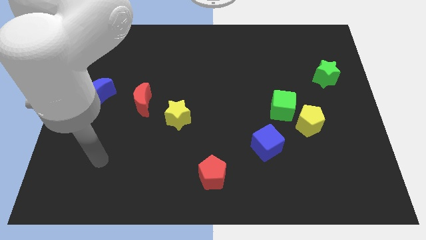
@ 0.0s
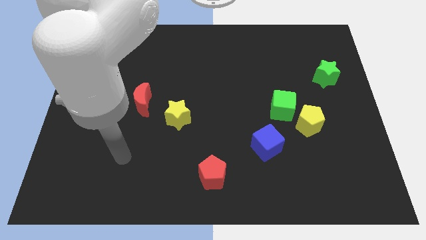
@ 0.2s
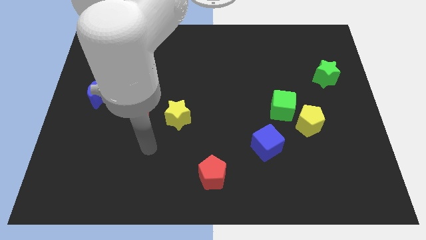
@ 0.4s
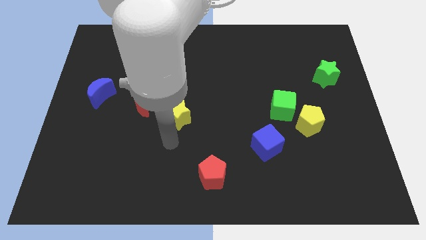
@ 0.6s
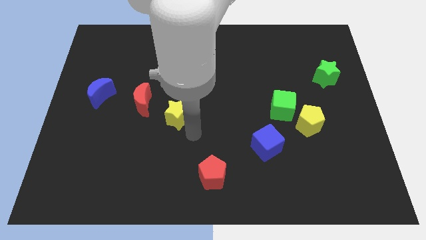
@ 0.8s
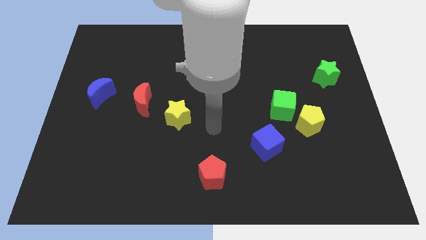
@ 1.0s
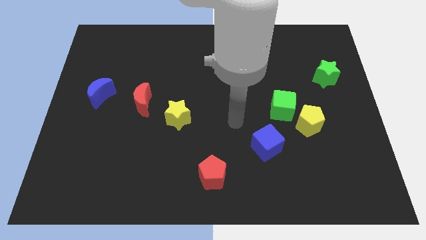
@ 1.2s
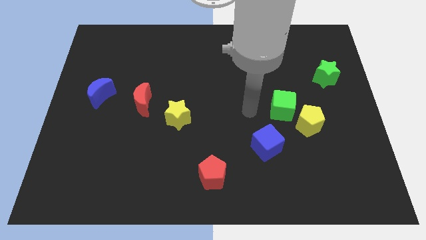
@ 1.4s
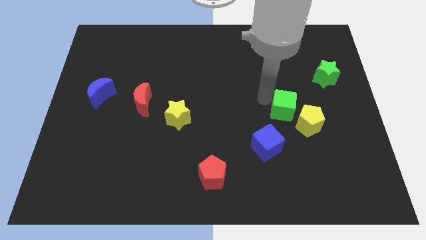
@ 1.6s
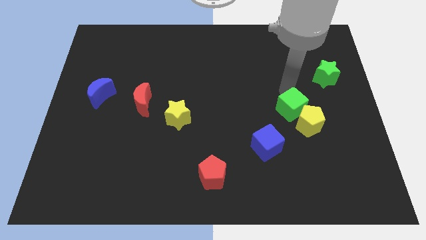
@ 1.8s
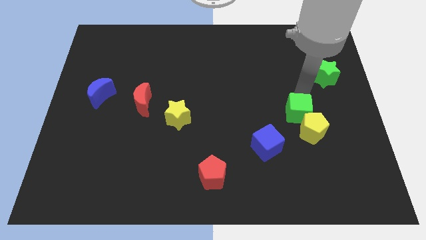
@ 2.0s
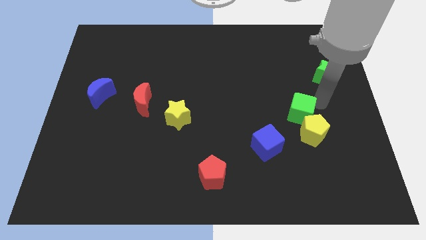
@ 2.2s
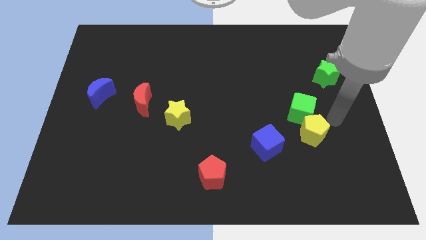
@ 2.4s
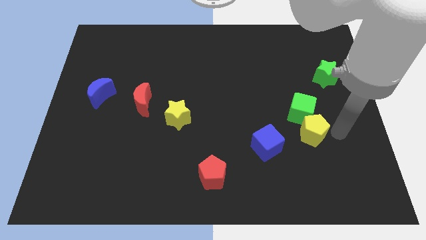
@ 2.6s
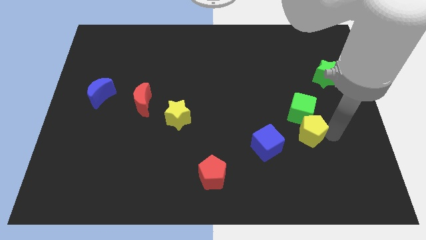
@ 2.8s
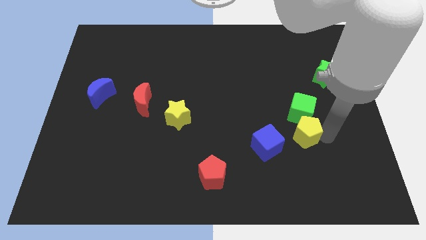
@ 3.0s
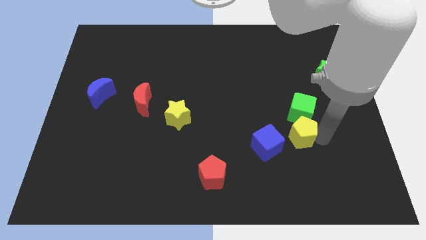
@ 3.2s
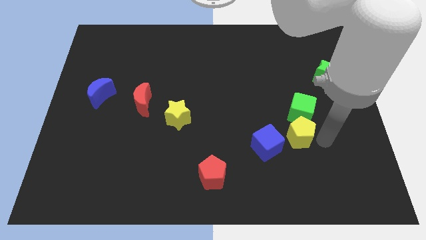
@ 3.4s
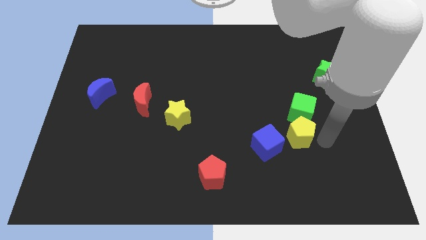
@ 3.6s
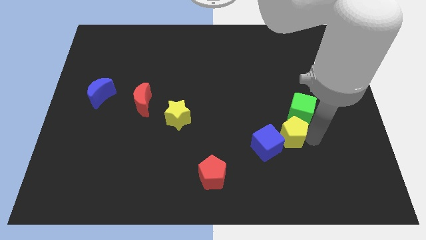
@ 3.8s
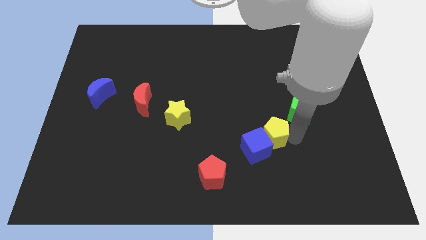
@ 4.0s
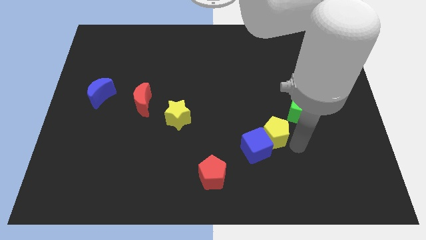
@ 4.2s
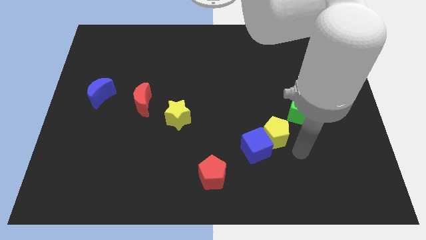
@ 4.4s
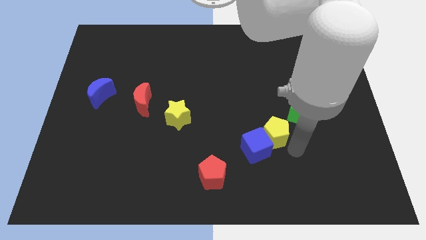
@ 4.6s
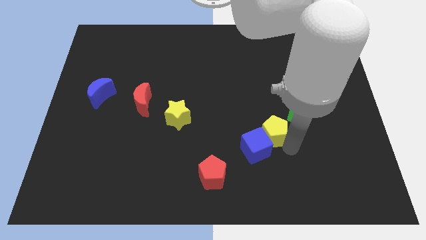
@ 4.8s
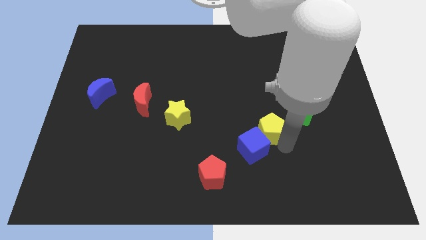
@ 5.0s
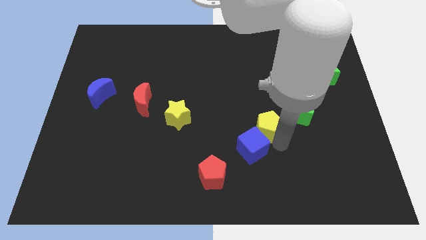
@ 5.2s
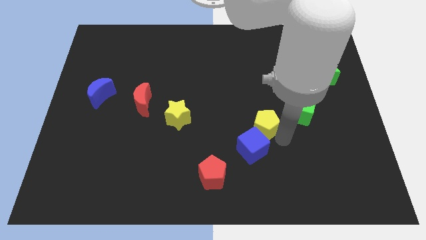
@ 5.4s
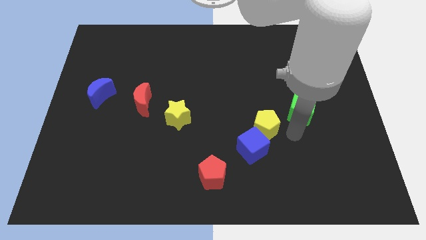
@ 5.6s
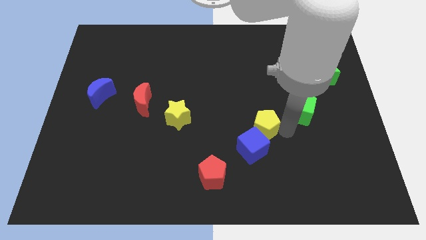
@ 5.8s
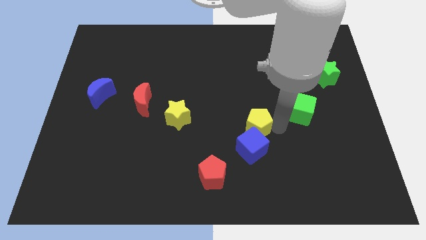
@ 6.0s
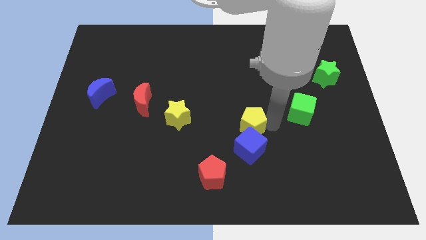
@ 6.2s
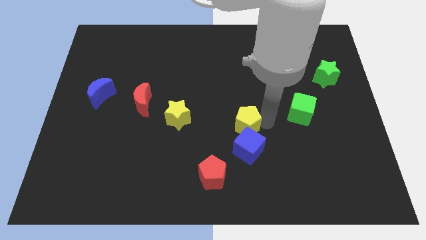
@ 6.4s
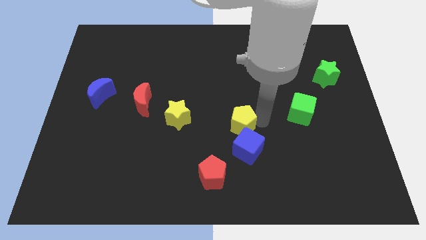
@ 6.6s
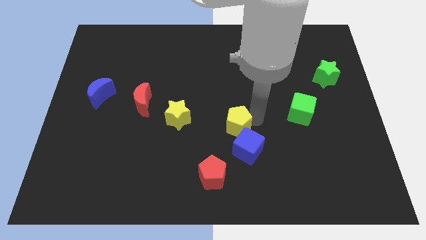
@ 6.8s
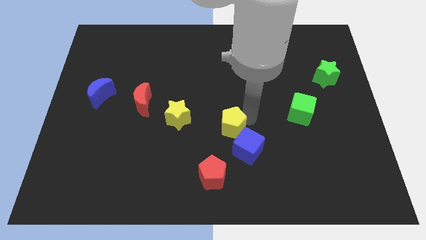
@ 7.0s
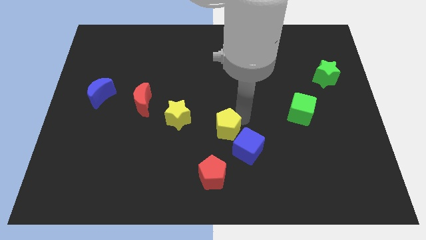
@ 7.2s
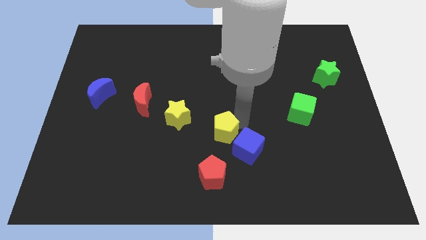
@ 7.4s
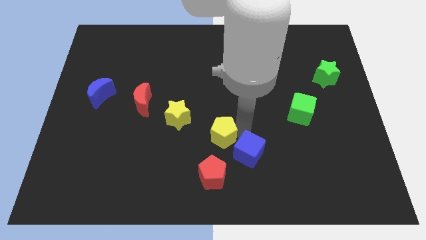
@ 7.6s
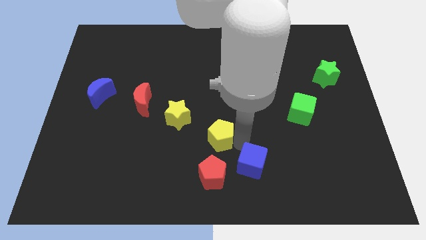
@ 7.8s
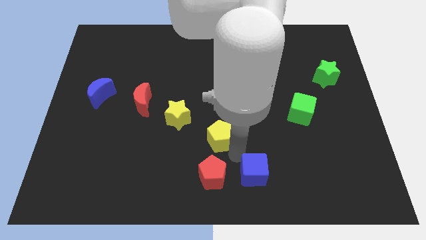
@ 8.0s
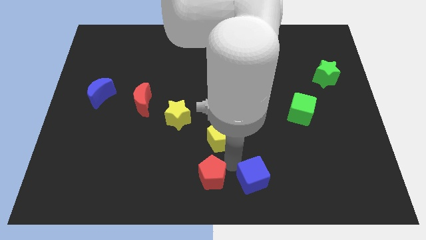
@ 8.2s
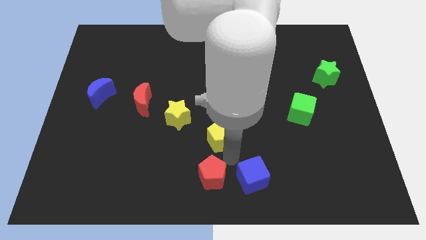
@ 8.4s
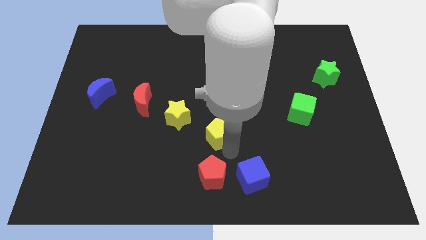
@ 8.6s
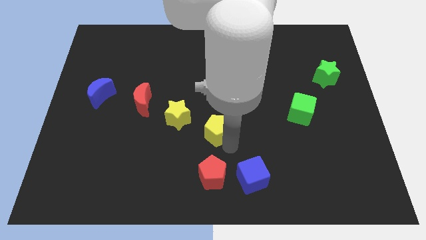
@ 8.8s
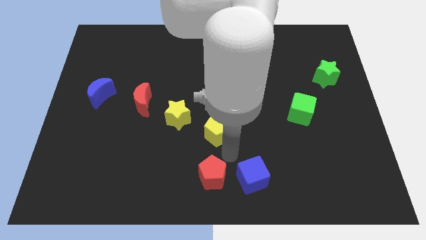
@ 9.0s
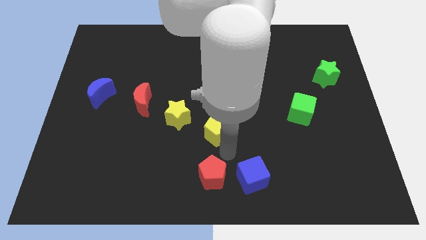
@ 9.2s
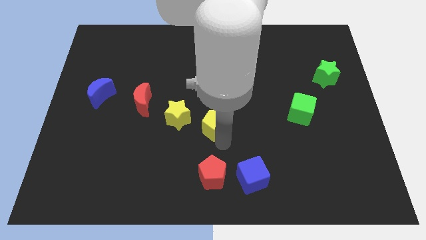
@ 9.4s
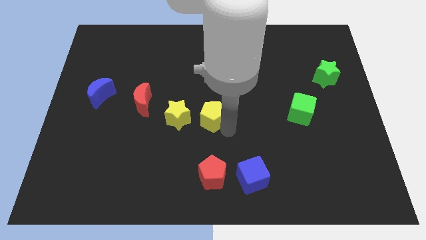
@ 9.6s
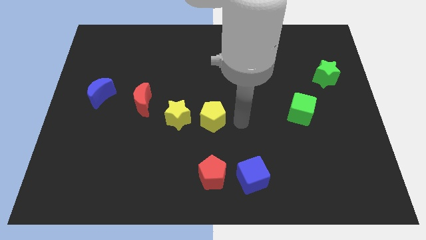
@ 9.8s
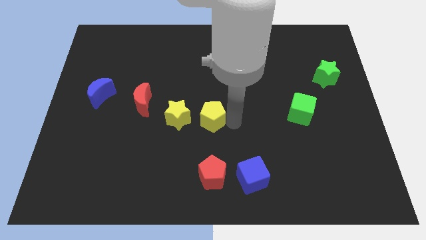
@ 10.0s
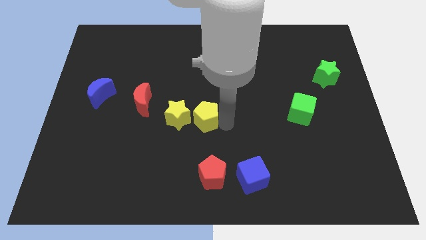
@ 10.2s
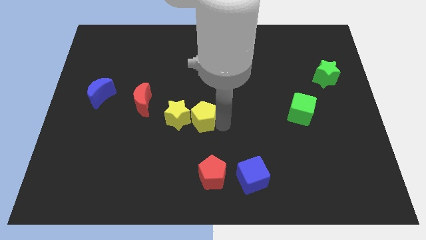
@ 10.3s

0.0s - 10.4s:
slide the yellow pentagon close to the yellow star

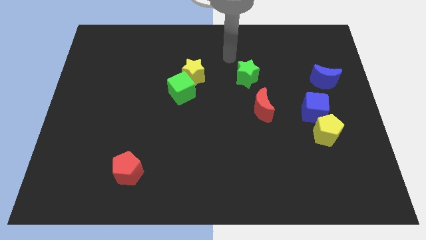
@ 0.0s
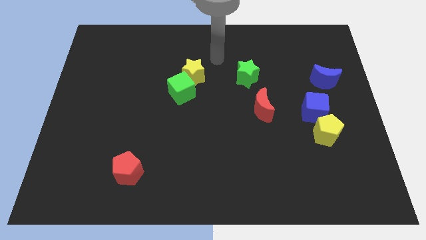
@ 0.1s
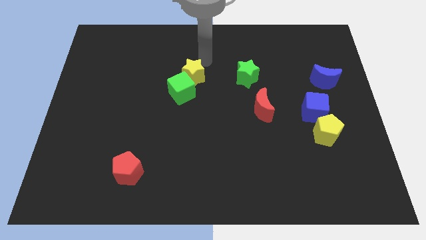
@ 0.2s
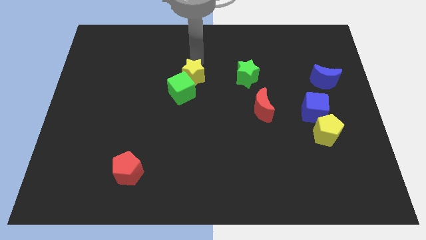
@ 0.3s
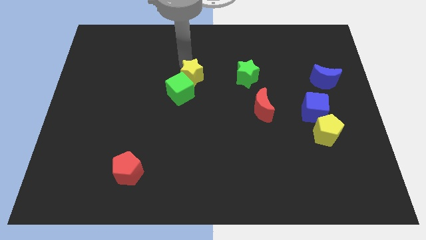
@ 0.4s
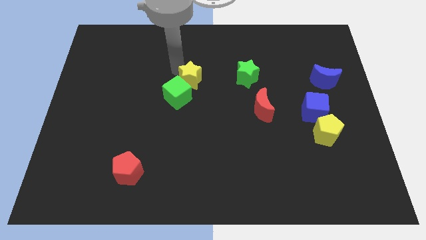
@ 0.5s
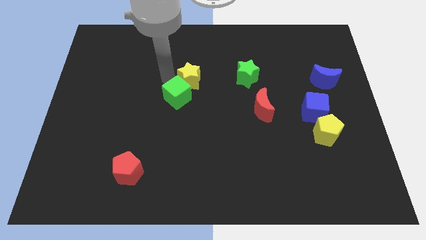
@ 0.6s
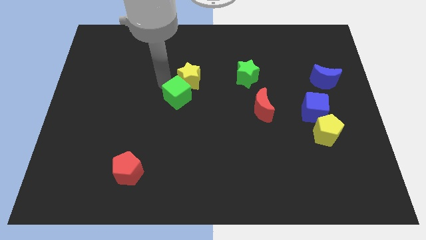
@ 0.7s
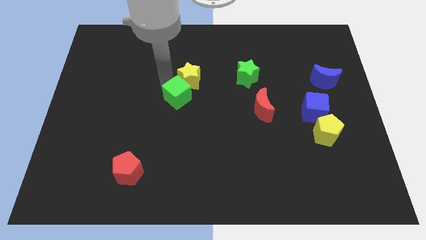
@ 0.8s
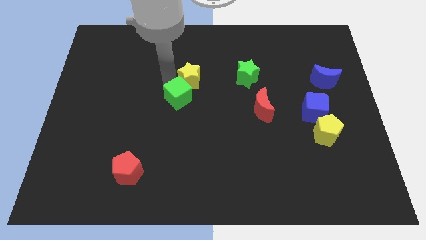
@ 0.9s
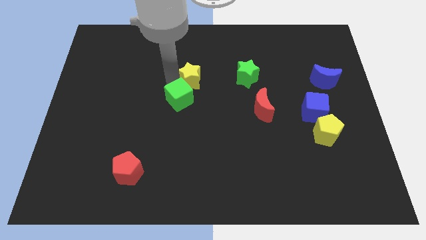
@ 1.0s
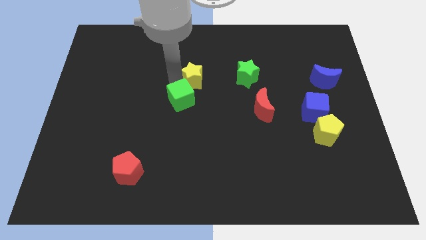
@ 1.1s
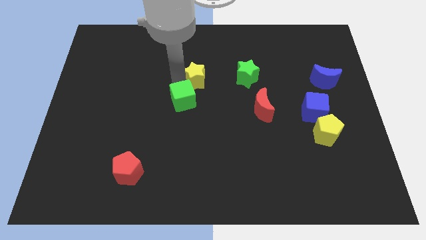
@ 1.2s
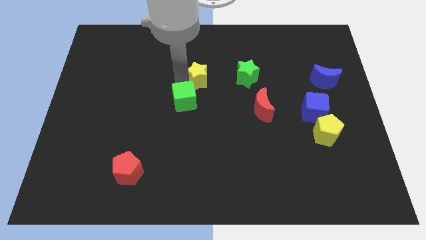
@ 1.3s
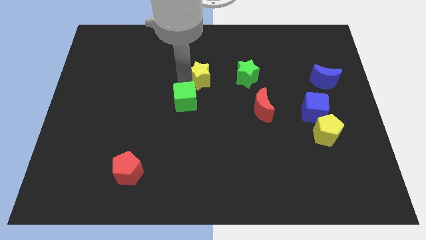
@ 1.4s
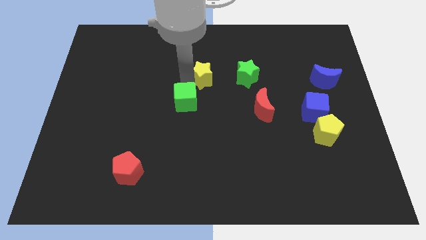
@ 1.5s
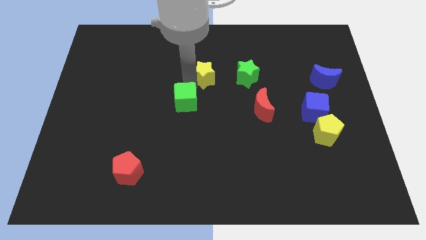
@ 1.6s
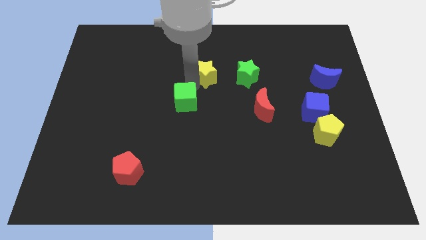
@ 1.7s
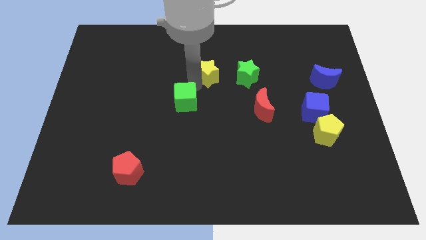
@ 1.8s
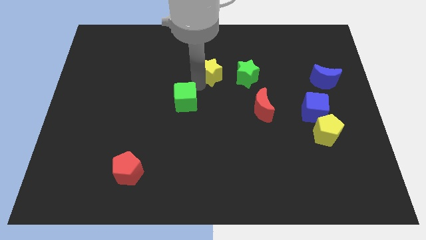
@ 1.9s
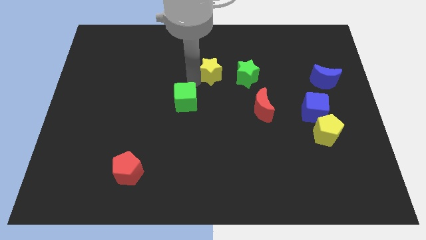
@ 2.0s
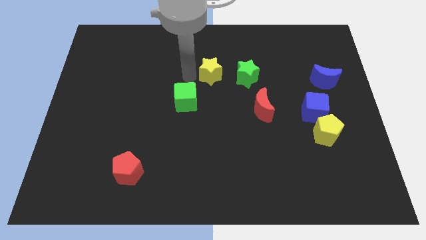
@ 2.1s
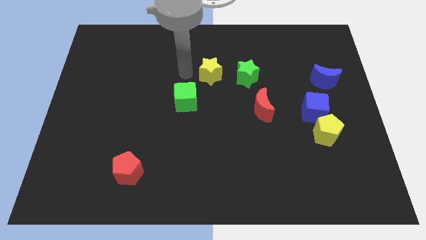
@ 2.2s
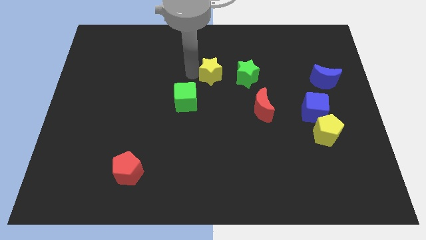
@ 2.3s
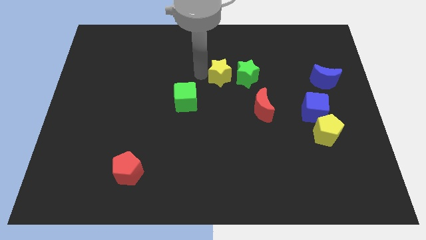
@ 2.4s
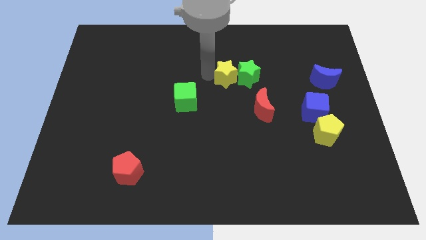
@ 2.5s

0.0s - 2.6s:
push the yellow star close to the green star

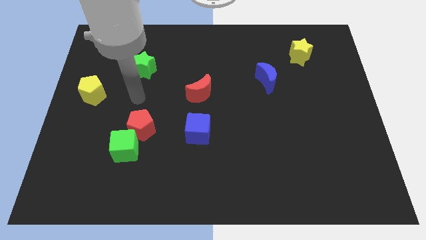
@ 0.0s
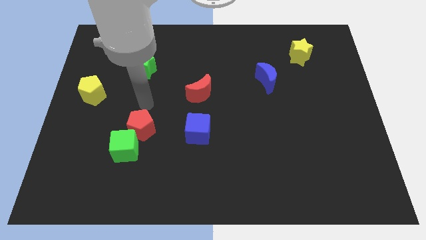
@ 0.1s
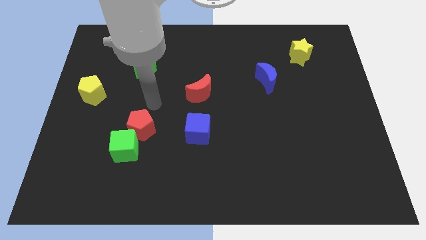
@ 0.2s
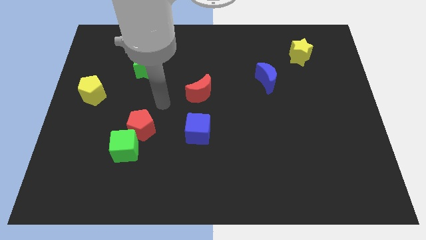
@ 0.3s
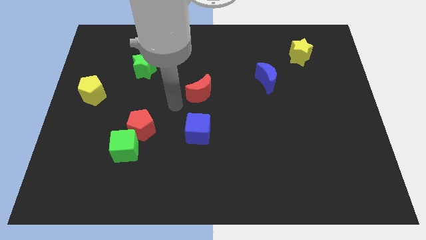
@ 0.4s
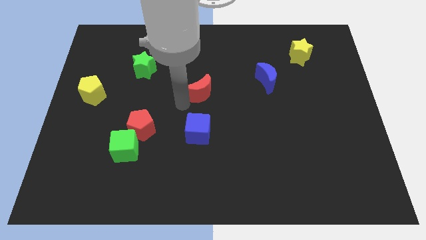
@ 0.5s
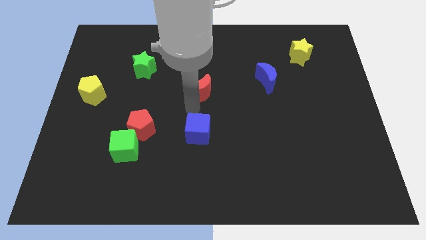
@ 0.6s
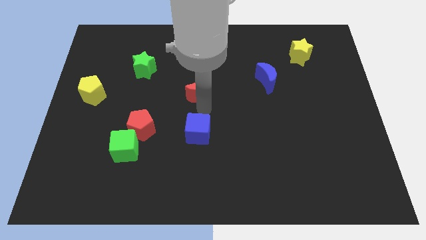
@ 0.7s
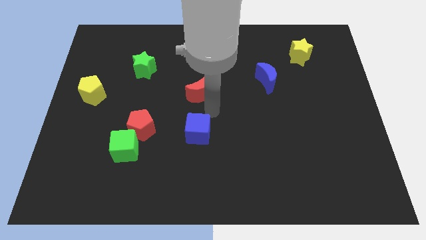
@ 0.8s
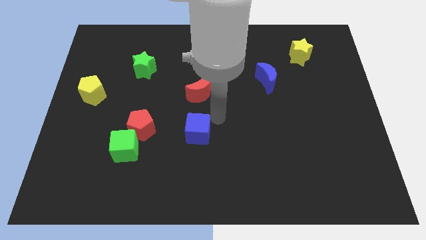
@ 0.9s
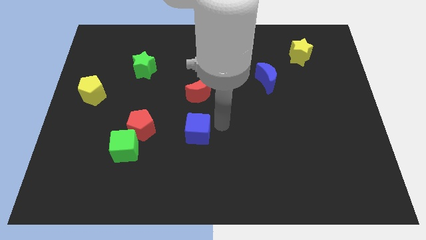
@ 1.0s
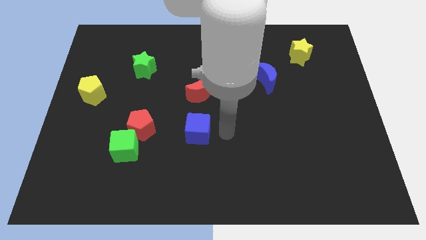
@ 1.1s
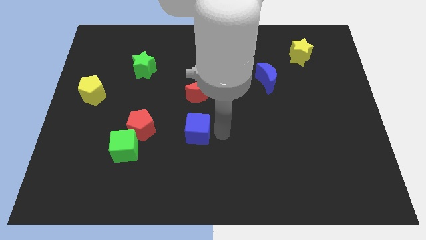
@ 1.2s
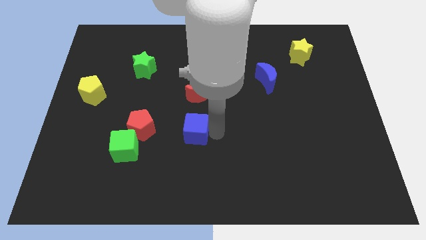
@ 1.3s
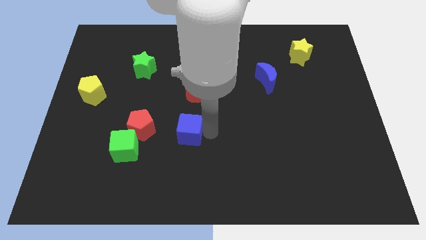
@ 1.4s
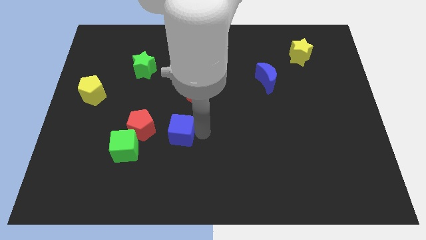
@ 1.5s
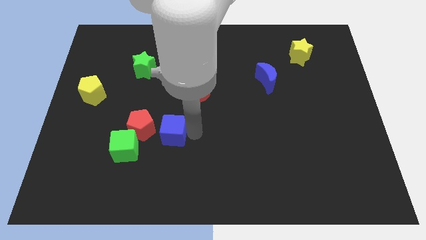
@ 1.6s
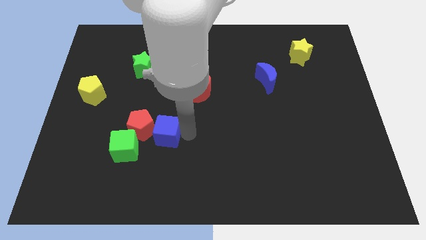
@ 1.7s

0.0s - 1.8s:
push the blue cube close to the red pentagon
